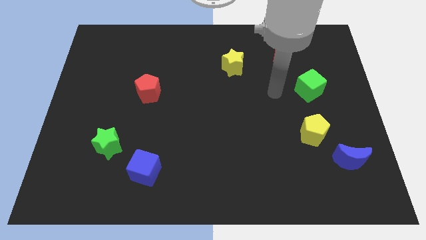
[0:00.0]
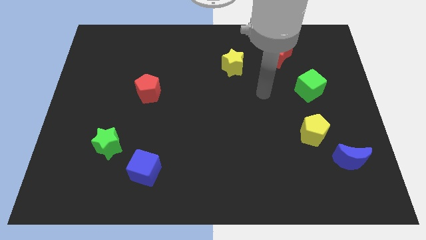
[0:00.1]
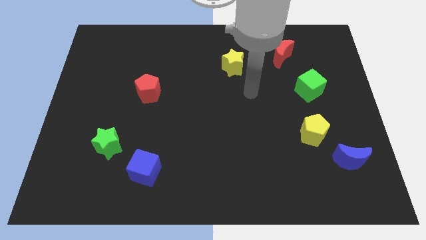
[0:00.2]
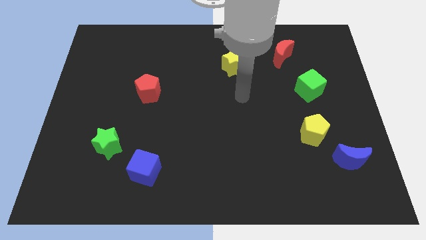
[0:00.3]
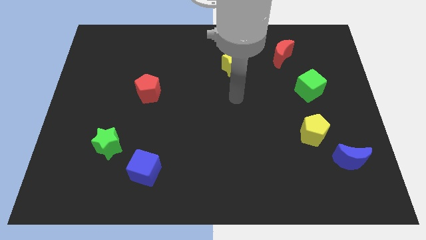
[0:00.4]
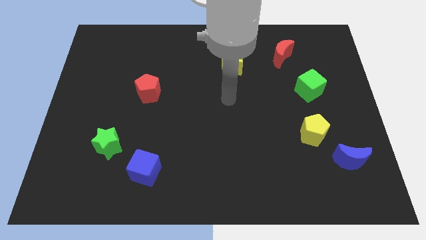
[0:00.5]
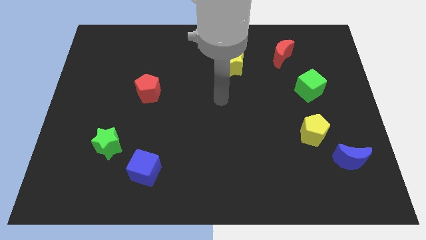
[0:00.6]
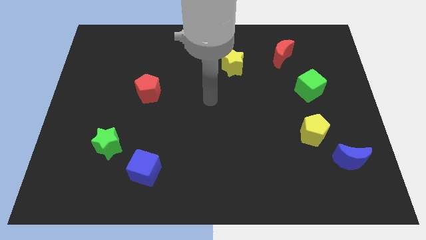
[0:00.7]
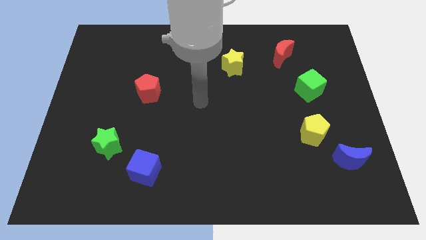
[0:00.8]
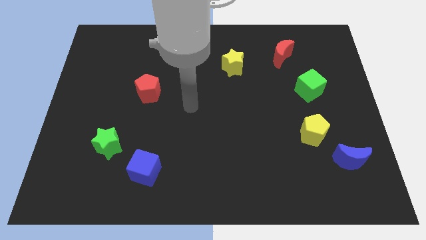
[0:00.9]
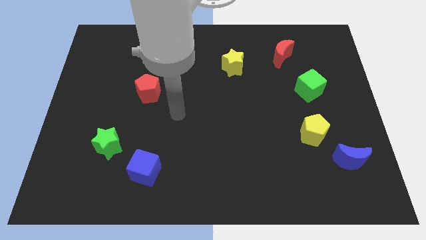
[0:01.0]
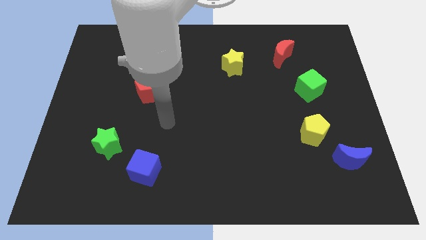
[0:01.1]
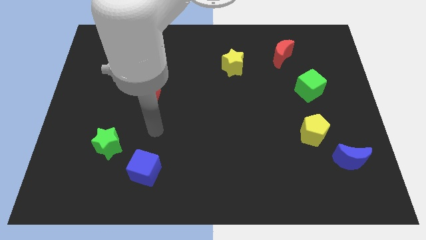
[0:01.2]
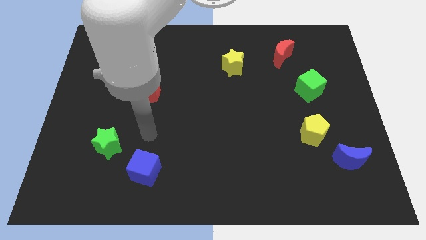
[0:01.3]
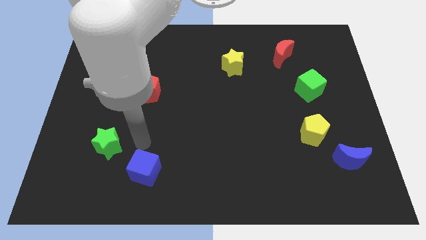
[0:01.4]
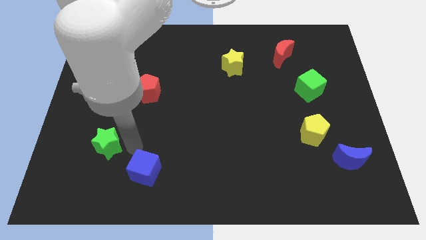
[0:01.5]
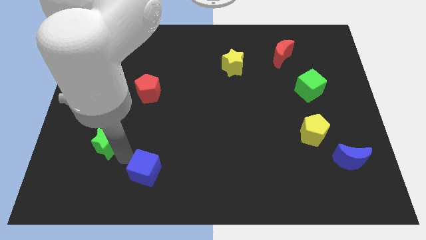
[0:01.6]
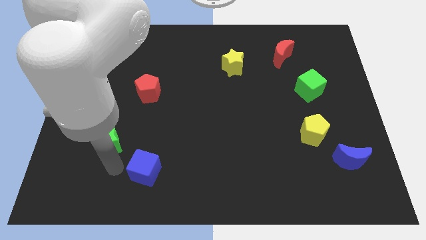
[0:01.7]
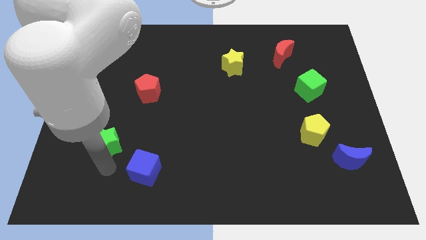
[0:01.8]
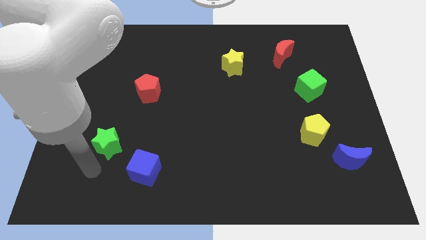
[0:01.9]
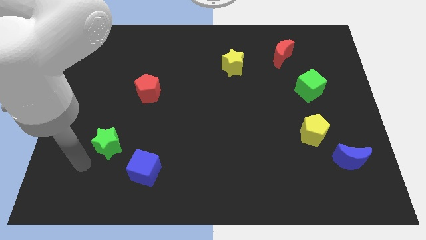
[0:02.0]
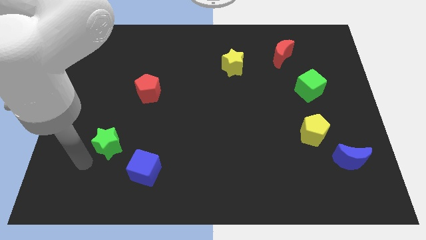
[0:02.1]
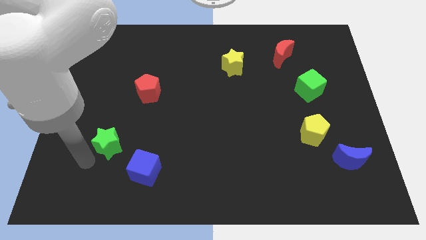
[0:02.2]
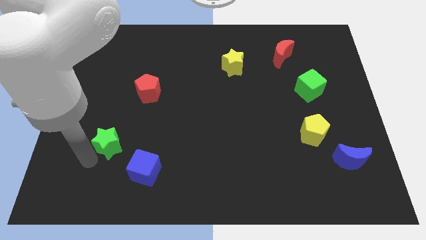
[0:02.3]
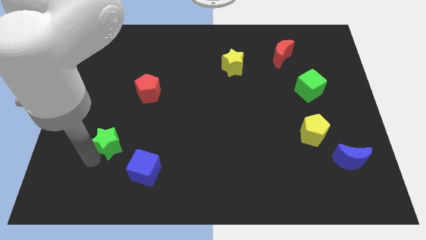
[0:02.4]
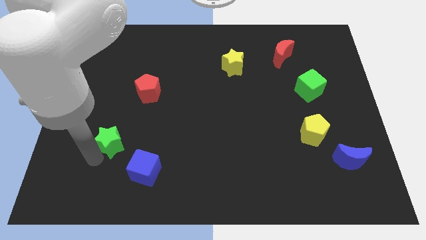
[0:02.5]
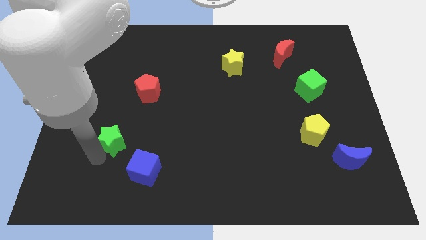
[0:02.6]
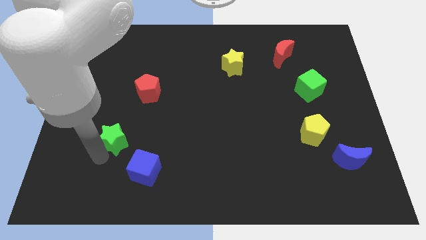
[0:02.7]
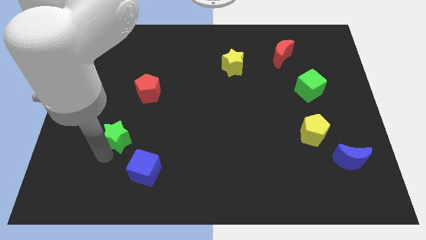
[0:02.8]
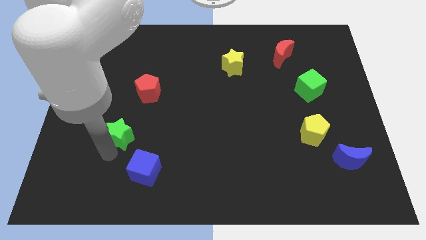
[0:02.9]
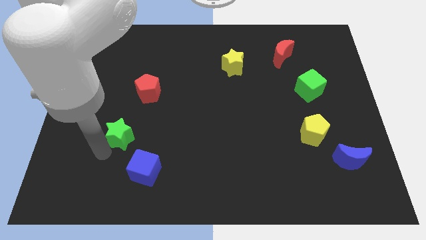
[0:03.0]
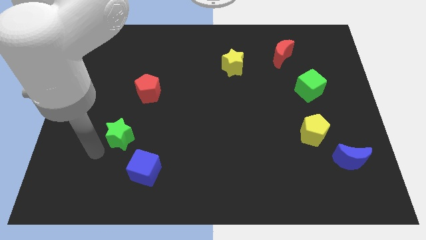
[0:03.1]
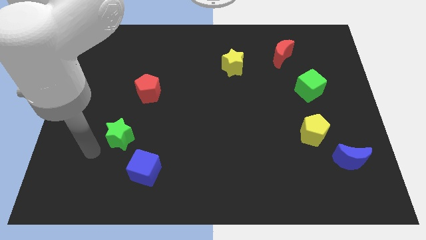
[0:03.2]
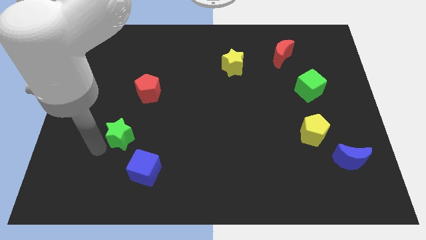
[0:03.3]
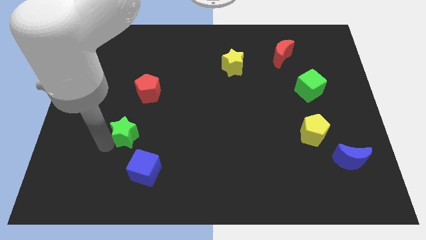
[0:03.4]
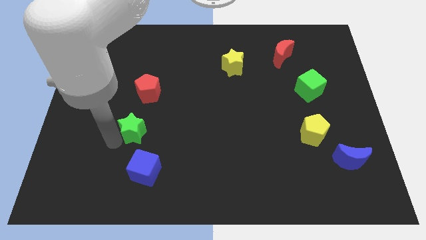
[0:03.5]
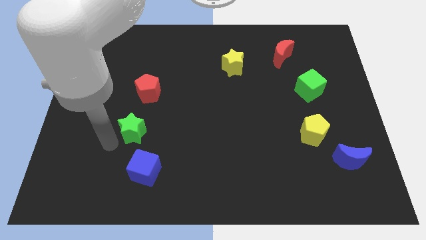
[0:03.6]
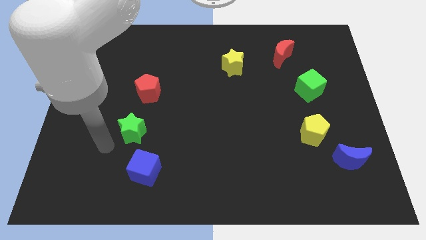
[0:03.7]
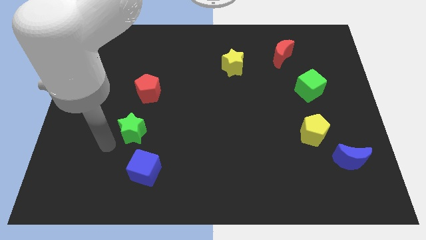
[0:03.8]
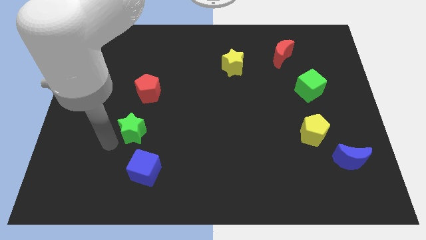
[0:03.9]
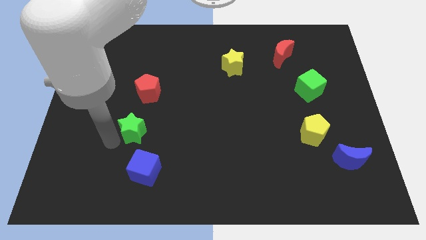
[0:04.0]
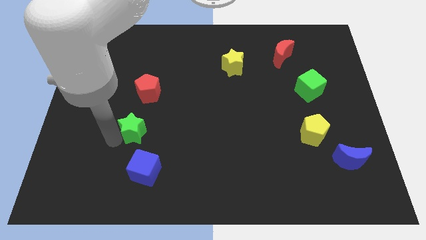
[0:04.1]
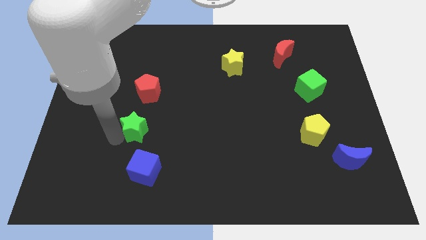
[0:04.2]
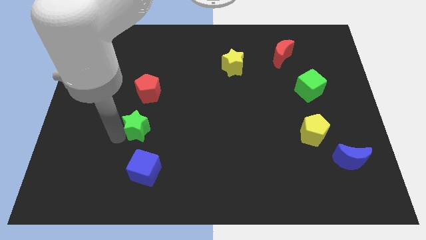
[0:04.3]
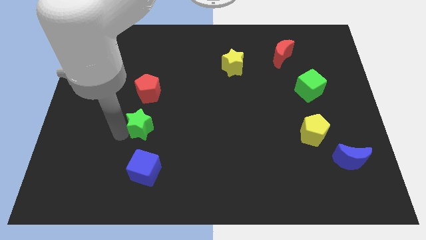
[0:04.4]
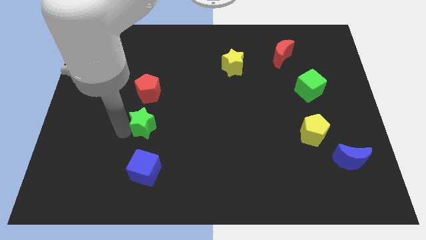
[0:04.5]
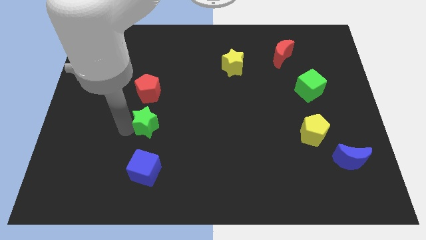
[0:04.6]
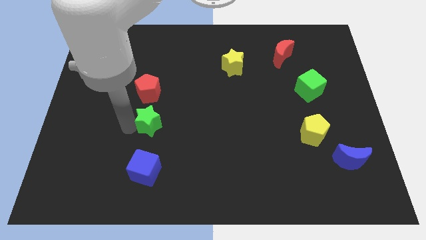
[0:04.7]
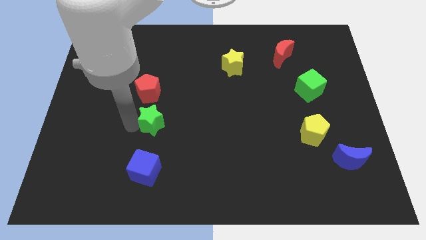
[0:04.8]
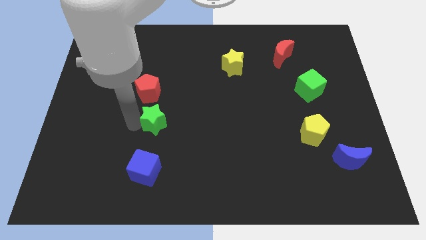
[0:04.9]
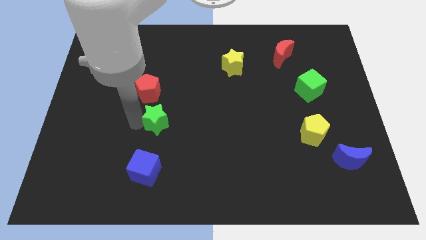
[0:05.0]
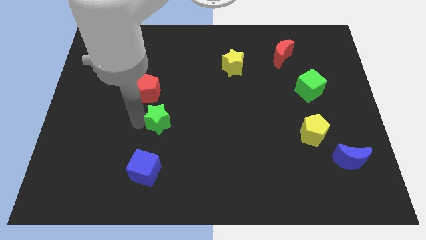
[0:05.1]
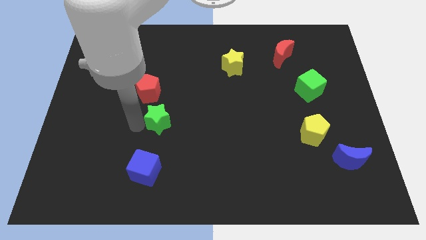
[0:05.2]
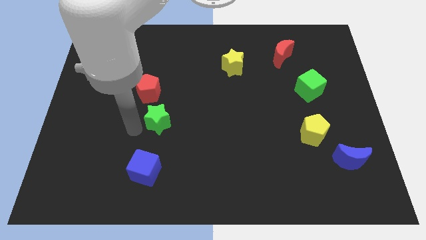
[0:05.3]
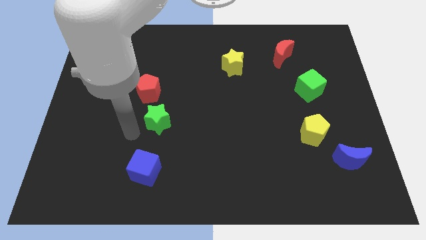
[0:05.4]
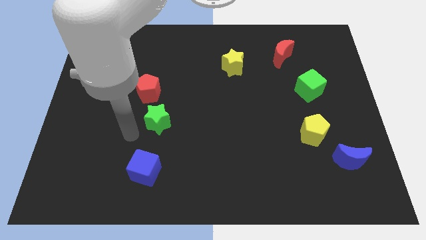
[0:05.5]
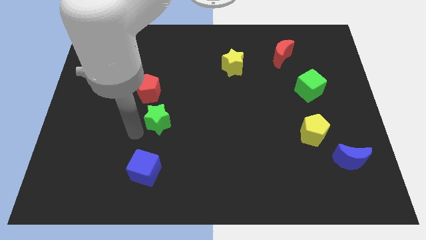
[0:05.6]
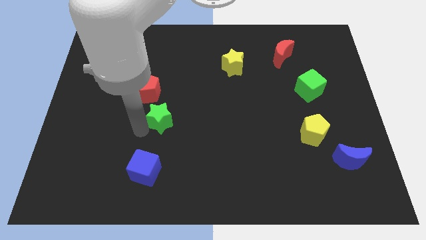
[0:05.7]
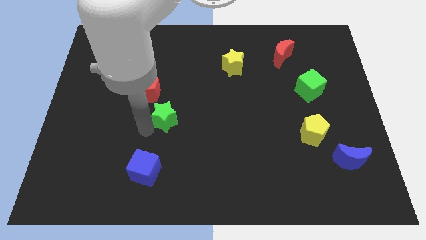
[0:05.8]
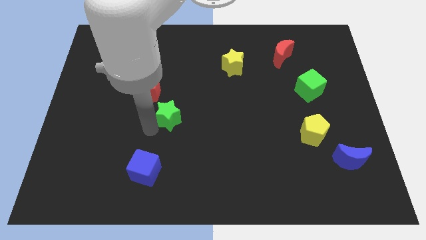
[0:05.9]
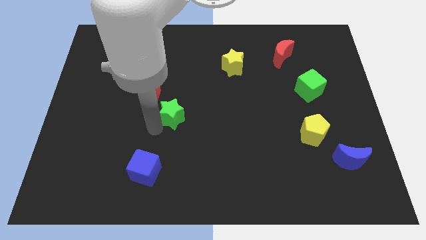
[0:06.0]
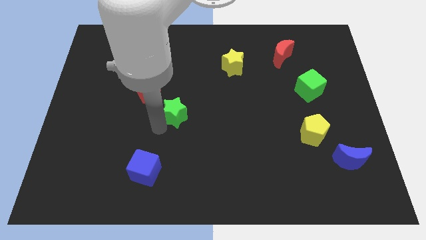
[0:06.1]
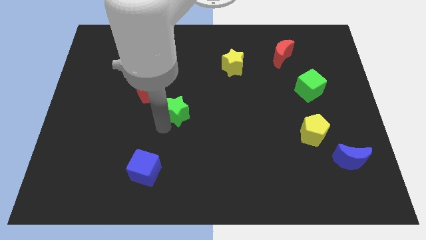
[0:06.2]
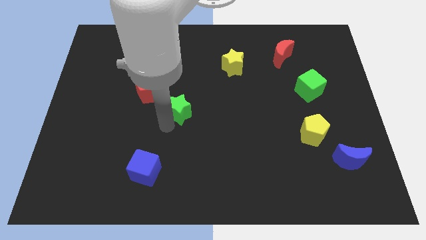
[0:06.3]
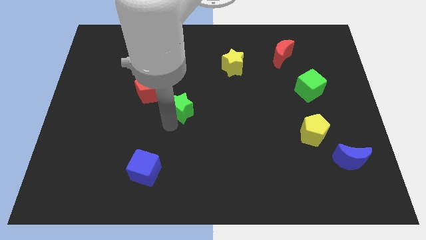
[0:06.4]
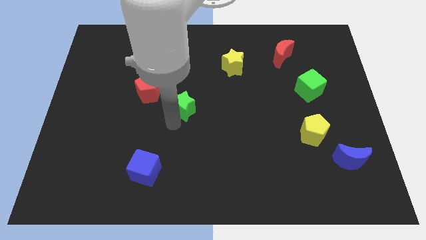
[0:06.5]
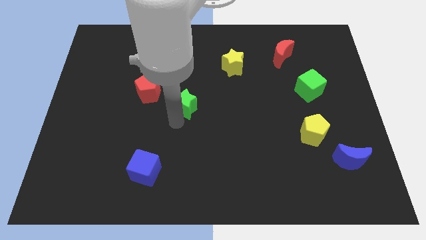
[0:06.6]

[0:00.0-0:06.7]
put the green star just right of the red pentagon

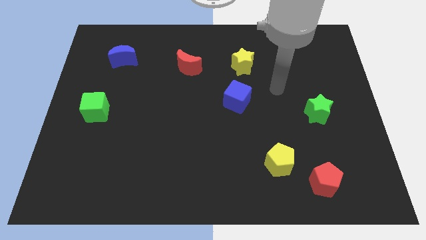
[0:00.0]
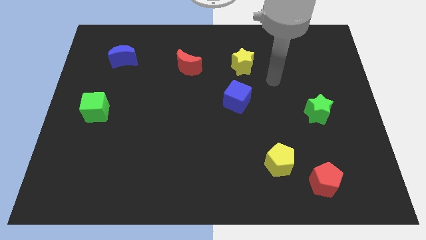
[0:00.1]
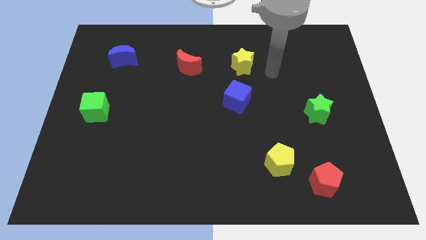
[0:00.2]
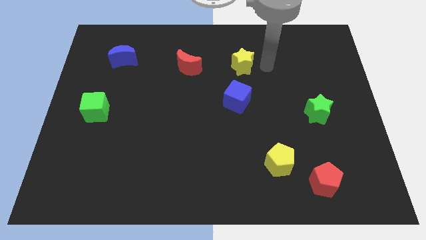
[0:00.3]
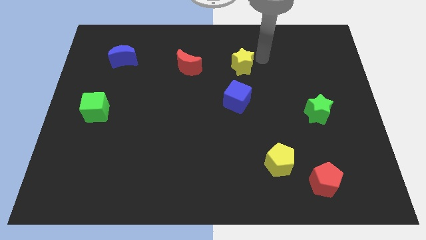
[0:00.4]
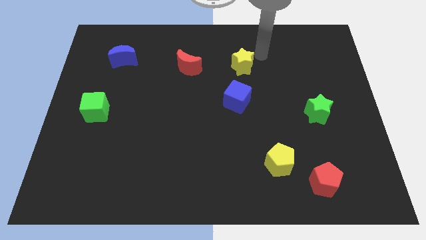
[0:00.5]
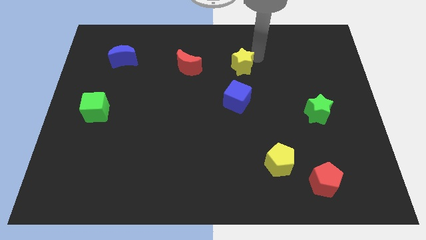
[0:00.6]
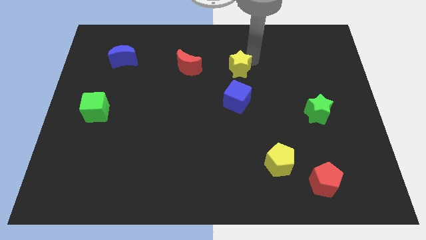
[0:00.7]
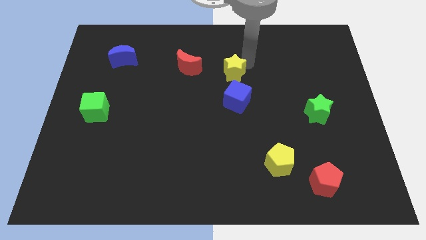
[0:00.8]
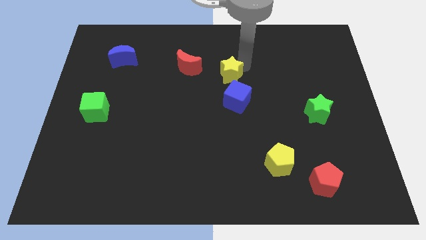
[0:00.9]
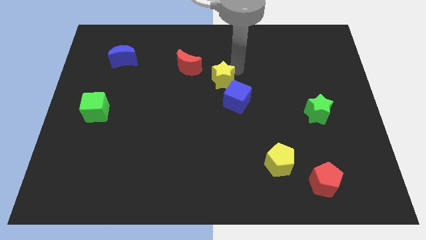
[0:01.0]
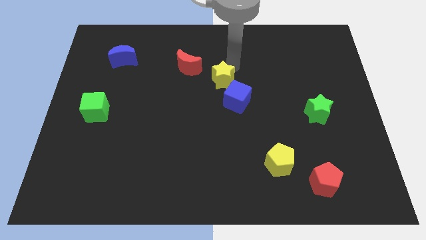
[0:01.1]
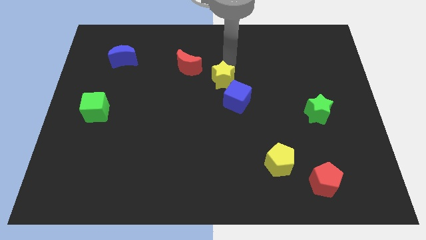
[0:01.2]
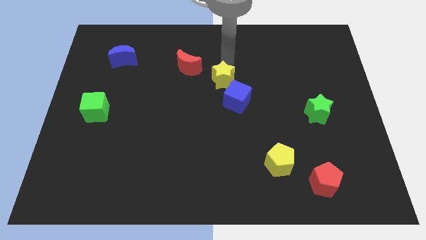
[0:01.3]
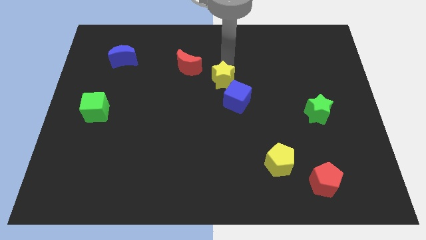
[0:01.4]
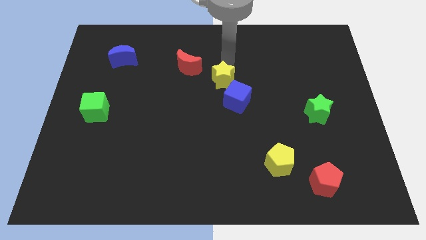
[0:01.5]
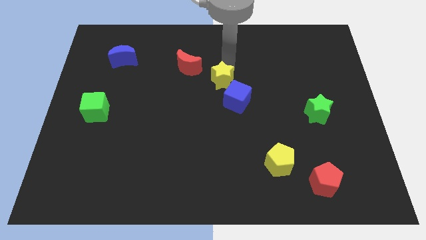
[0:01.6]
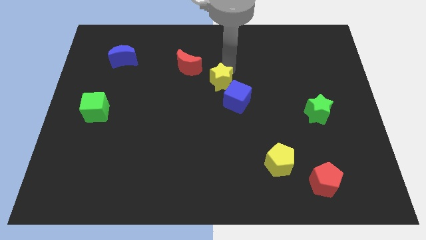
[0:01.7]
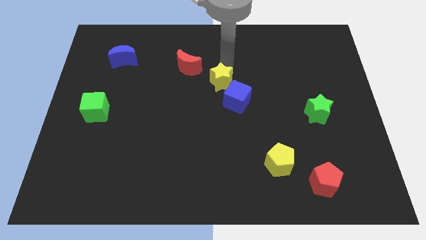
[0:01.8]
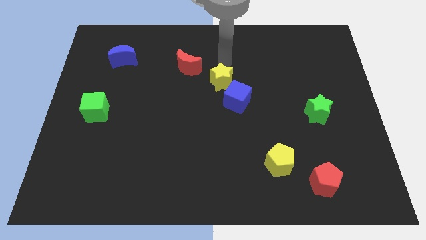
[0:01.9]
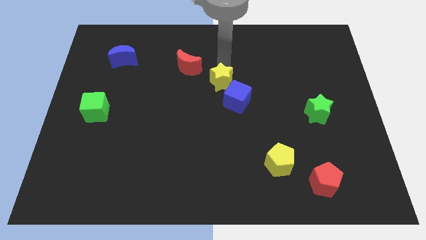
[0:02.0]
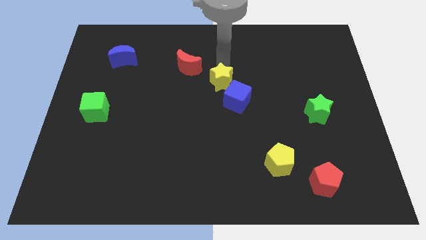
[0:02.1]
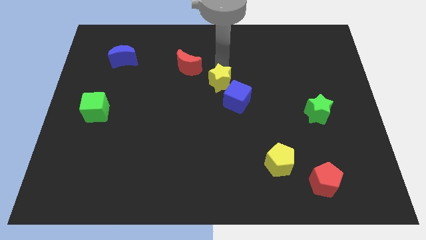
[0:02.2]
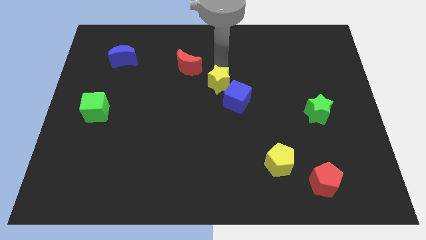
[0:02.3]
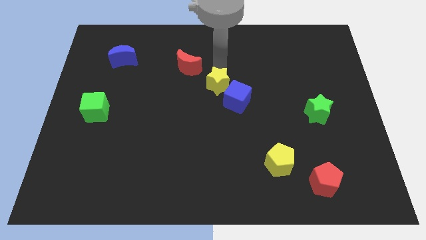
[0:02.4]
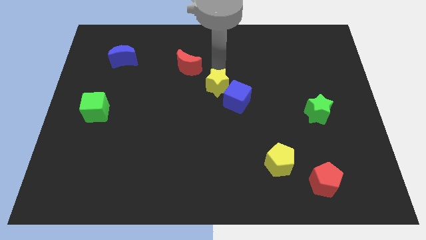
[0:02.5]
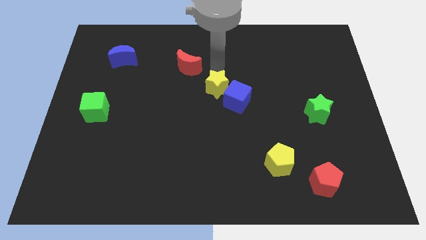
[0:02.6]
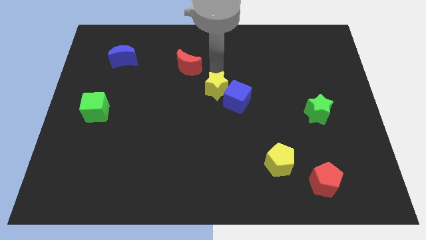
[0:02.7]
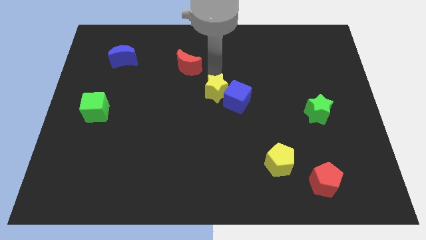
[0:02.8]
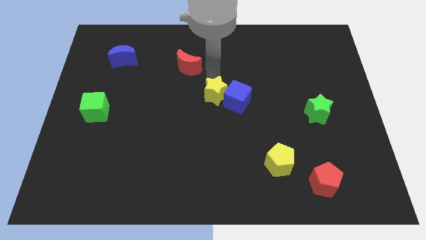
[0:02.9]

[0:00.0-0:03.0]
put the yellow star to the bottom left side of the blue cube
